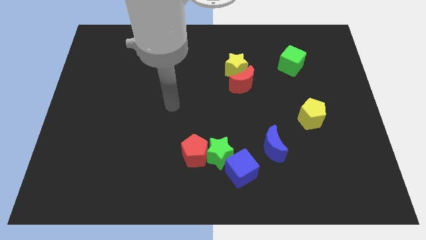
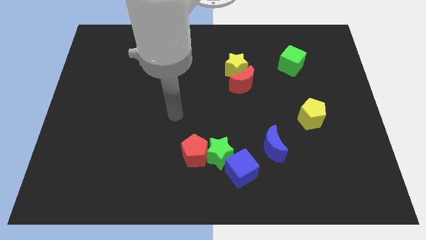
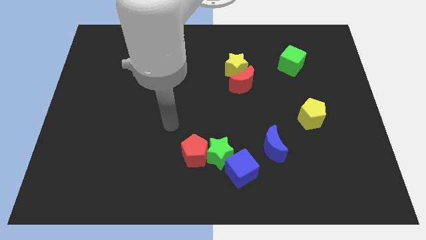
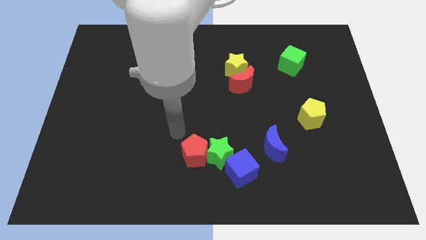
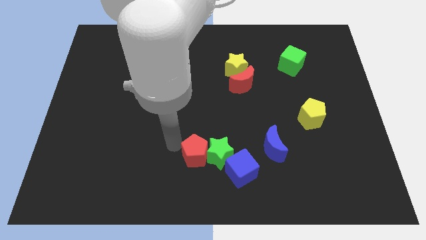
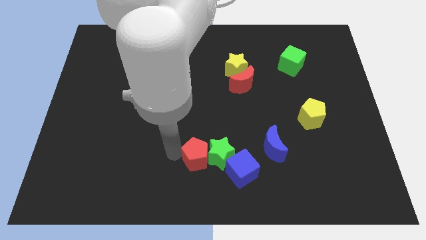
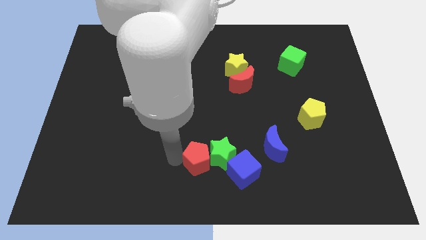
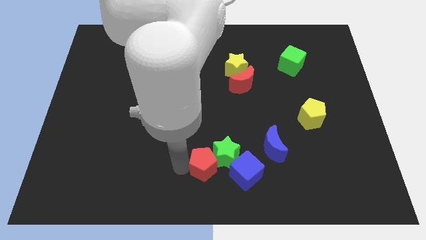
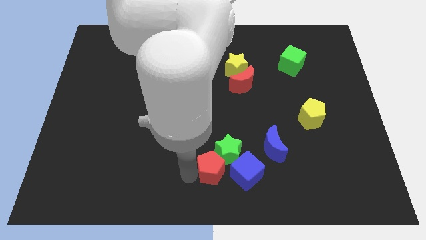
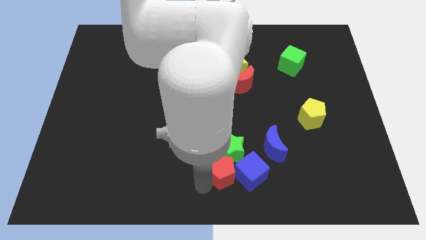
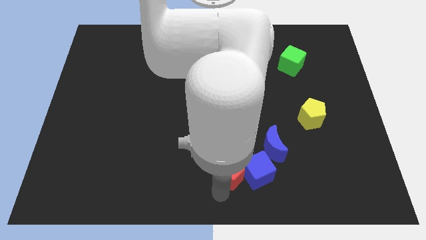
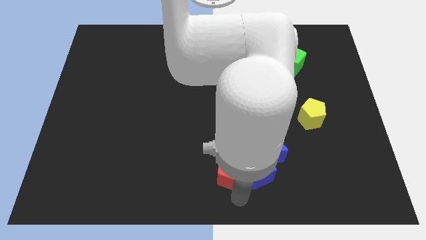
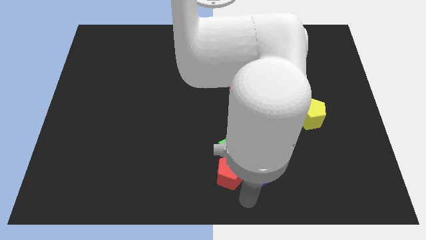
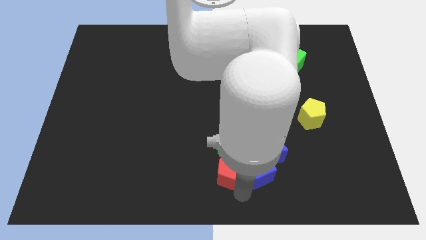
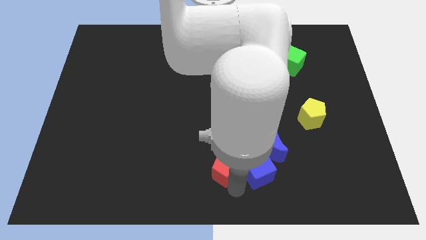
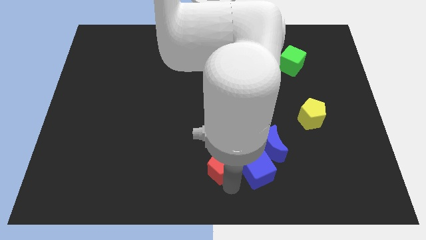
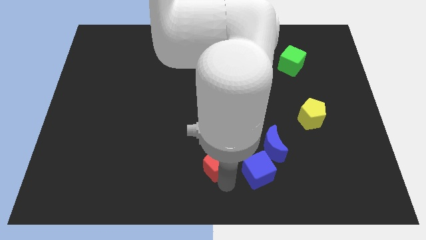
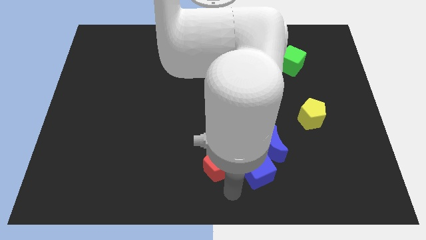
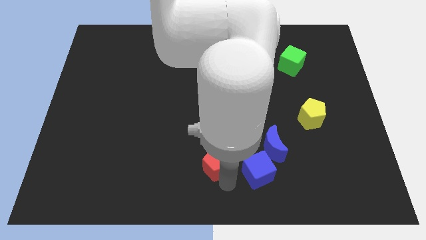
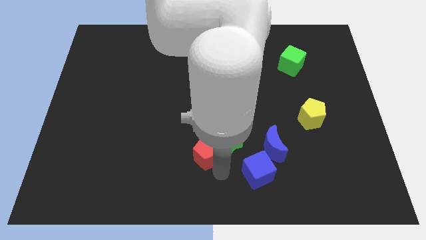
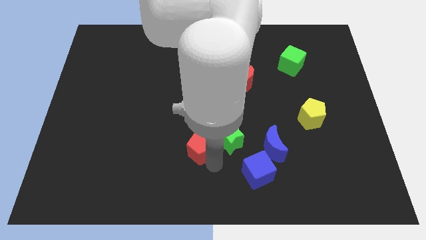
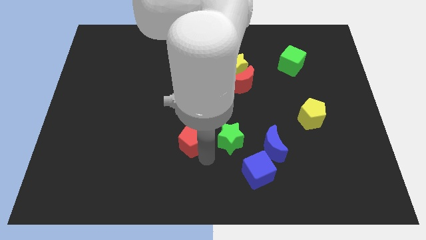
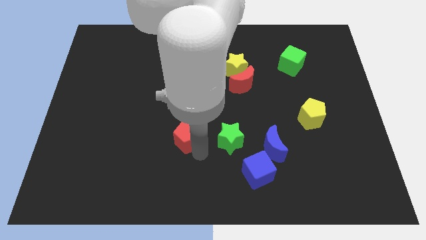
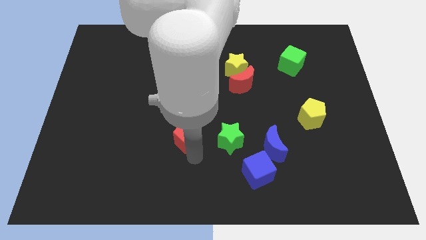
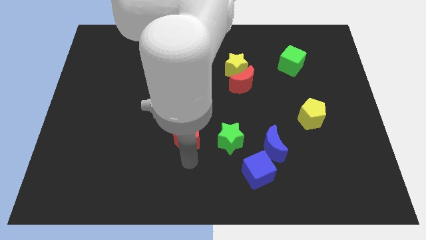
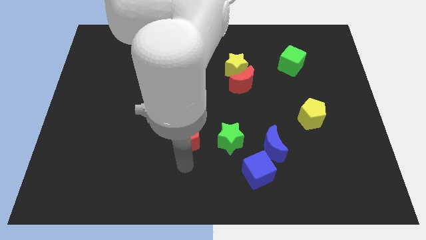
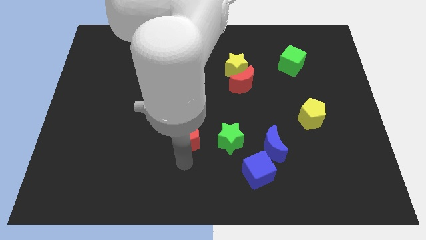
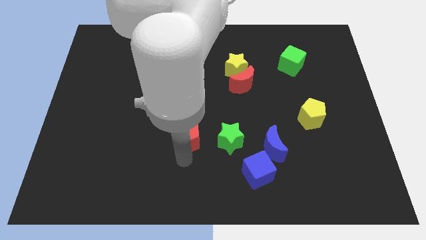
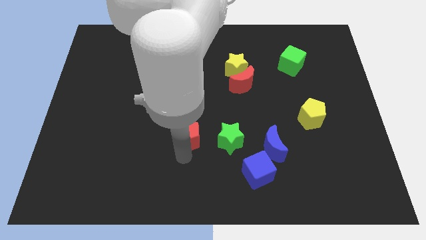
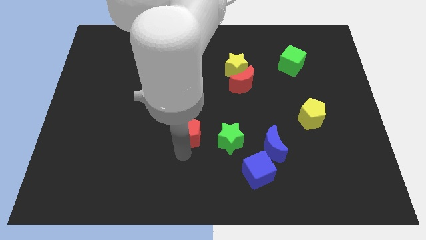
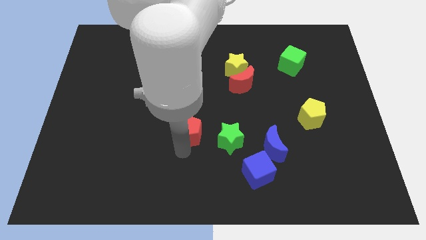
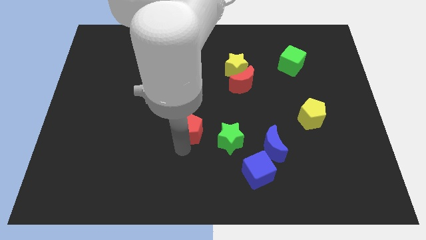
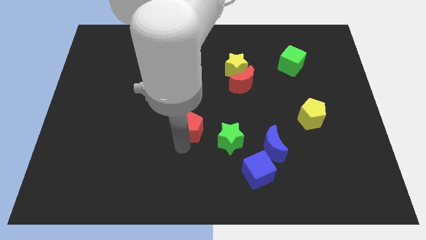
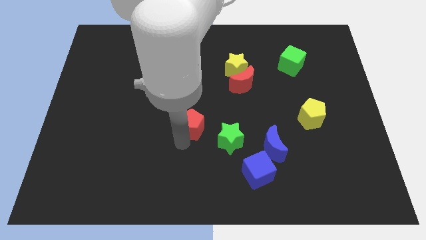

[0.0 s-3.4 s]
move the red pentagon a bit upwards

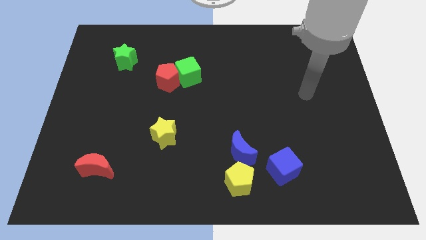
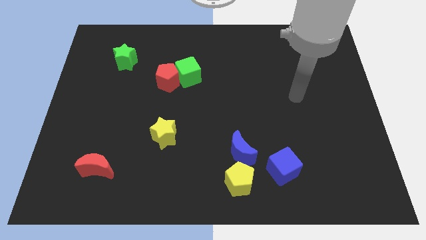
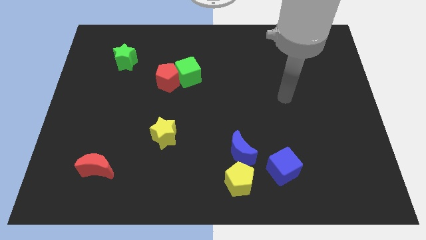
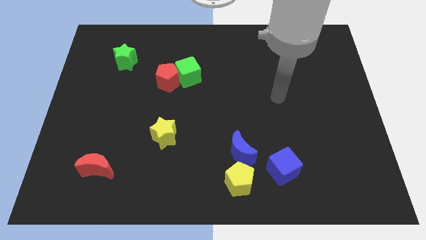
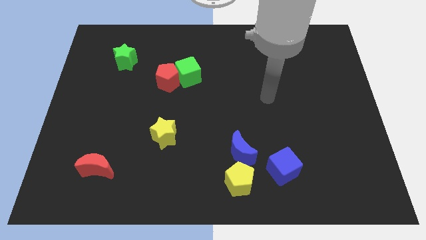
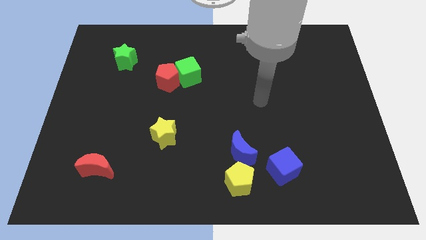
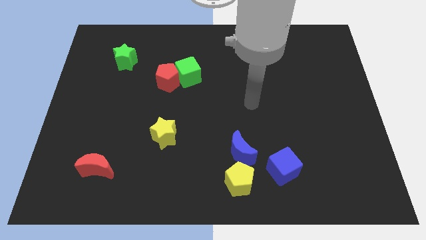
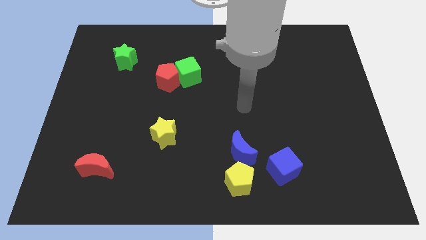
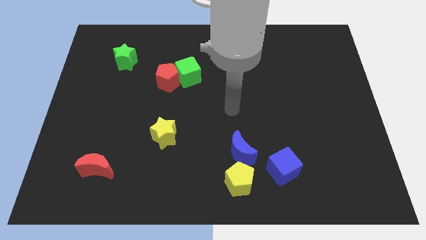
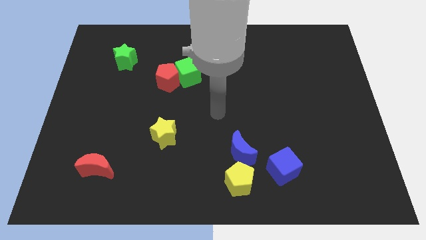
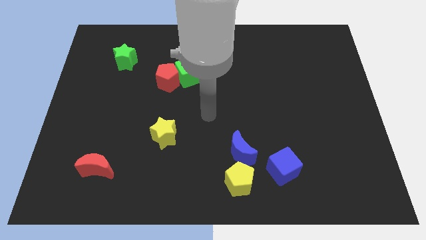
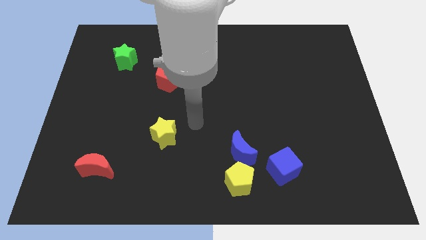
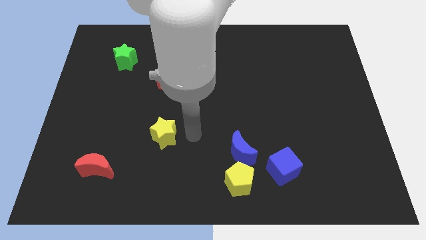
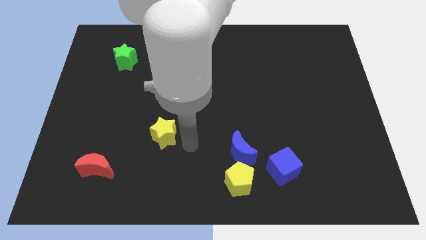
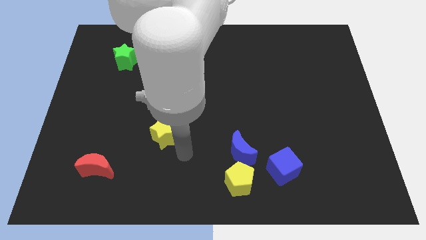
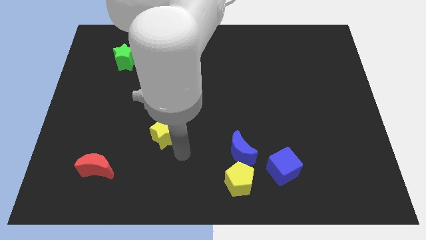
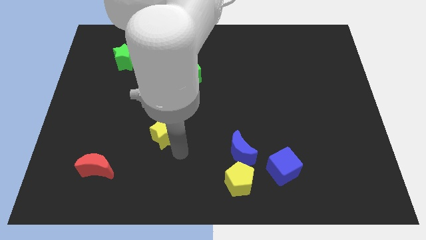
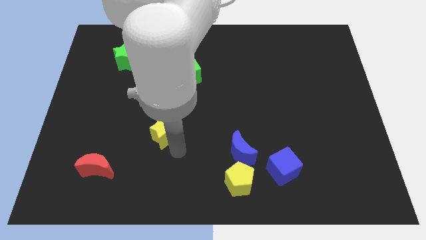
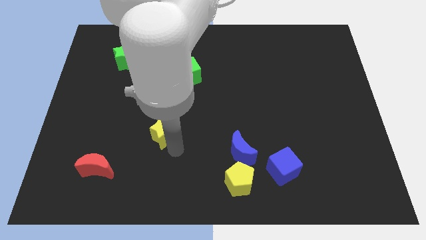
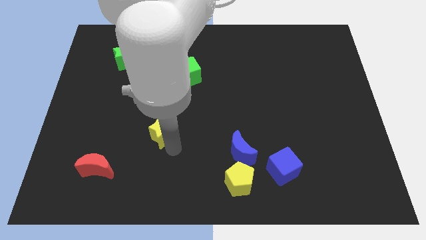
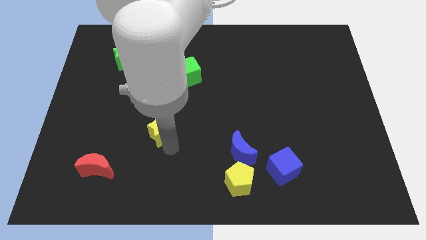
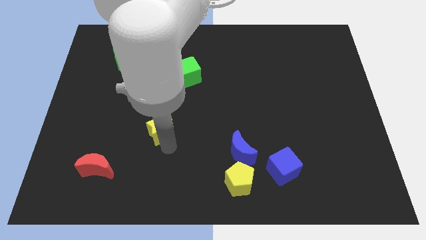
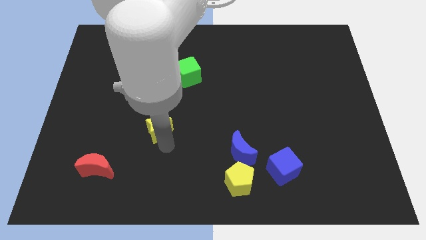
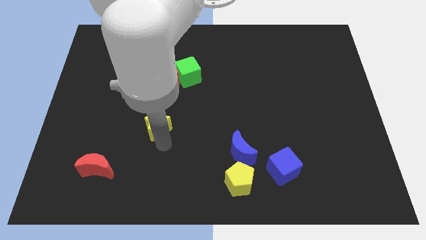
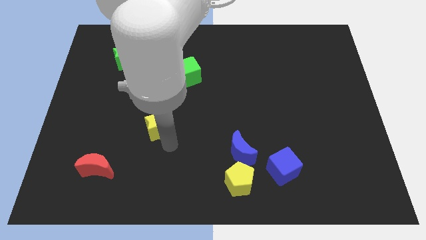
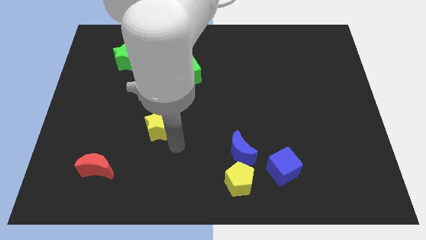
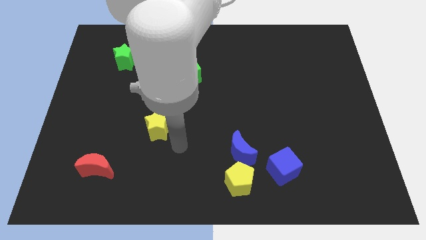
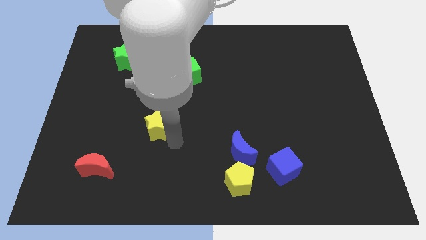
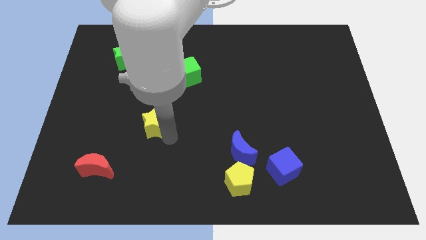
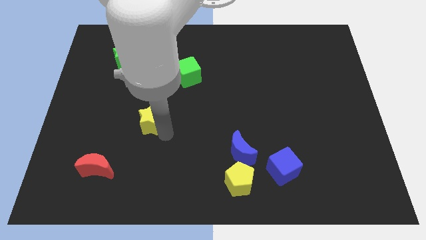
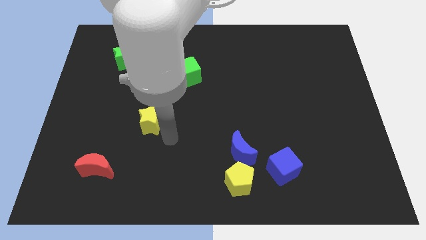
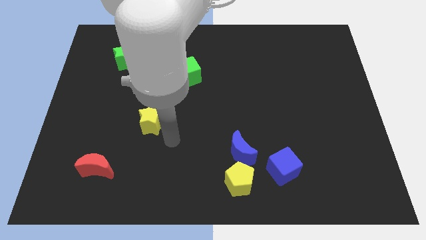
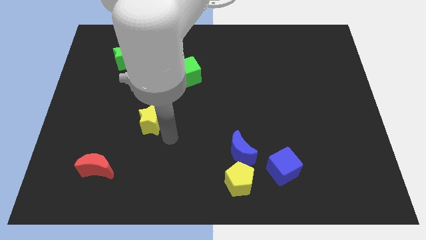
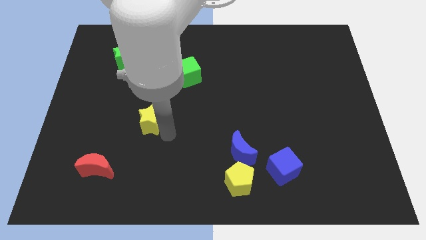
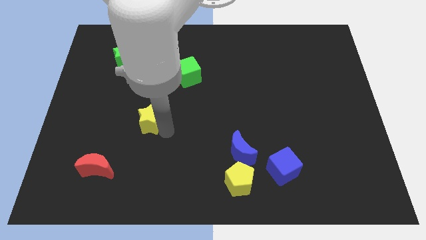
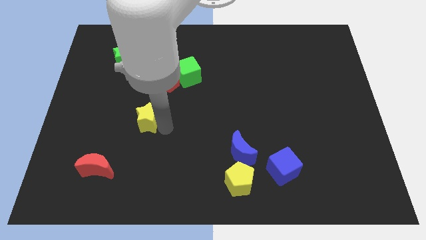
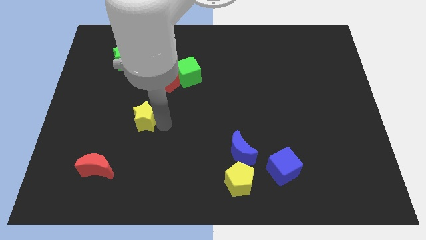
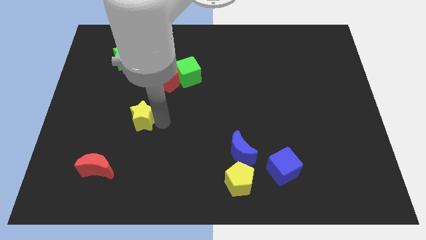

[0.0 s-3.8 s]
push the yellow star diagonally up and to the left slightly

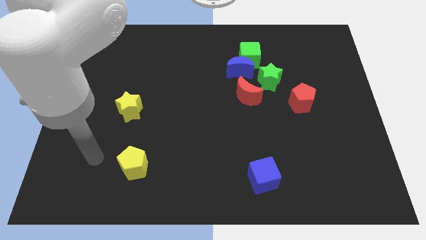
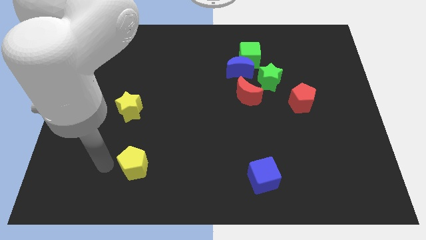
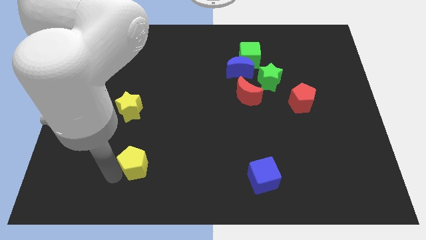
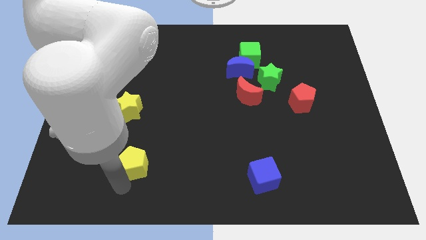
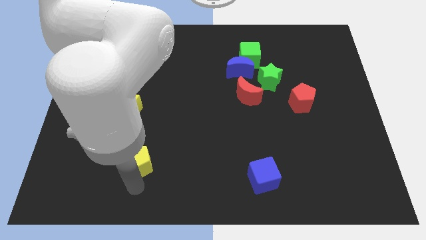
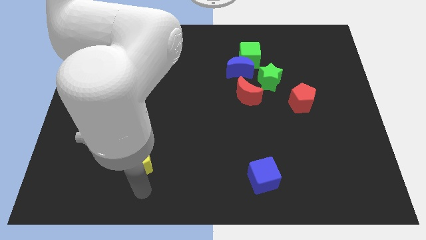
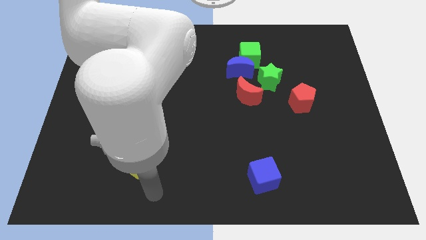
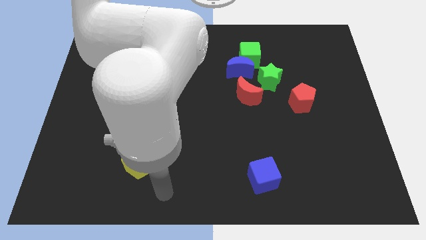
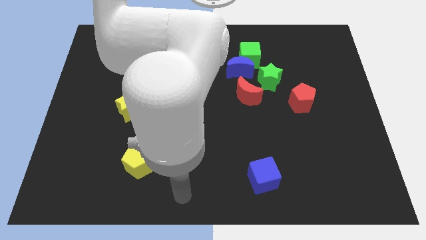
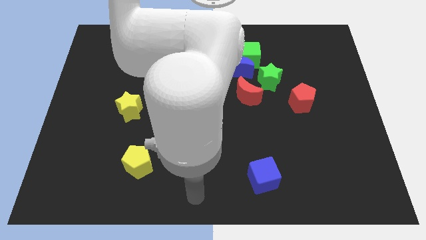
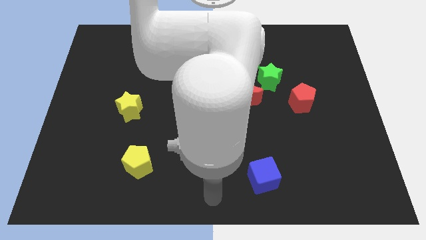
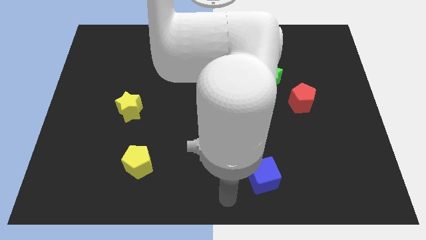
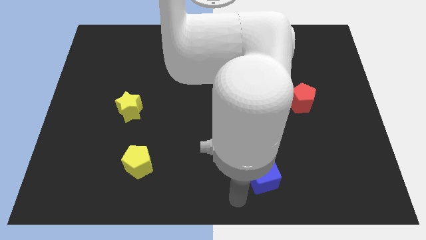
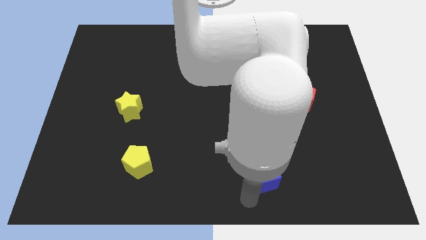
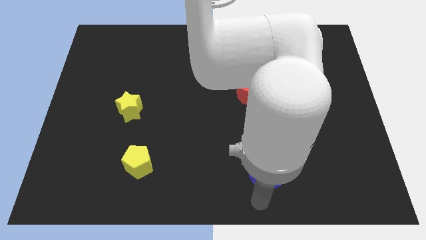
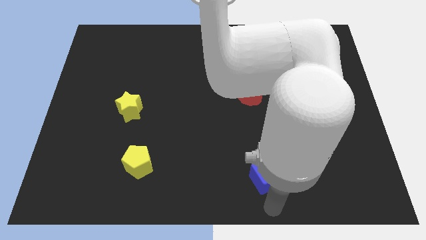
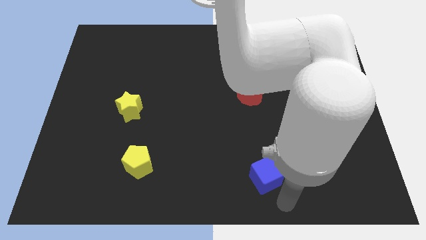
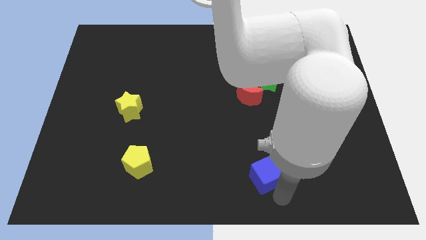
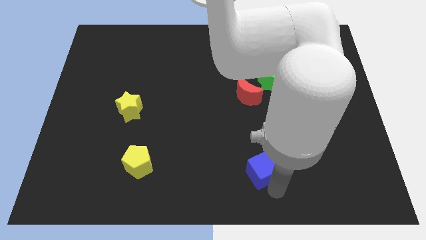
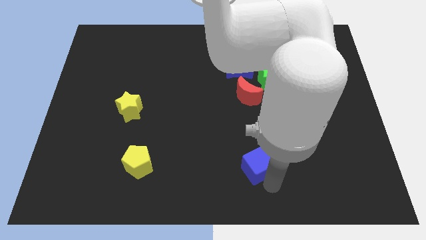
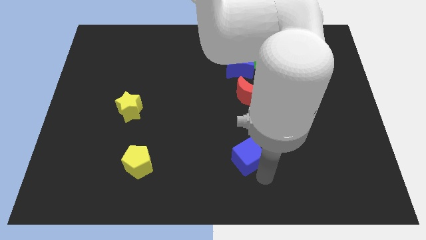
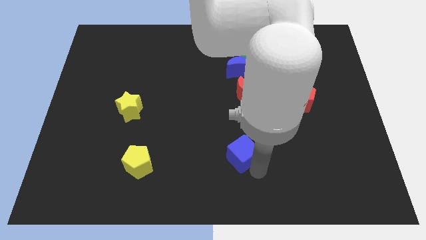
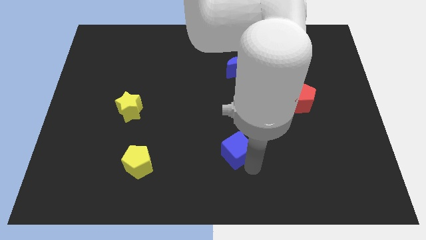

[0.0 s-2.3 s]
push the blue cube upwards and left diagonally a little
